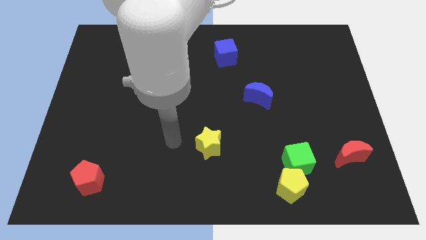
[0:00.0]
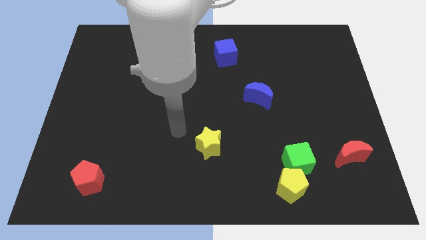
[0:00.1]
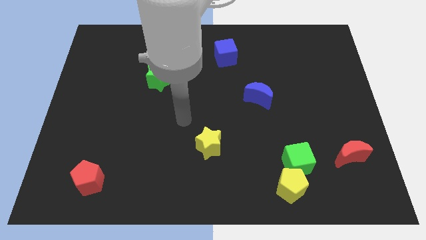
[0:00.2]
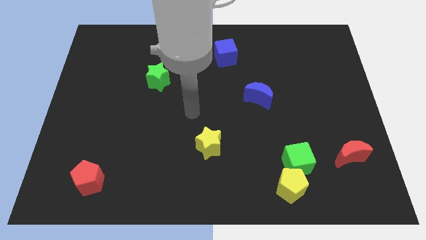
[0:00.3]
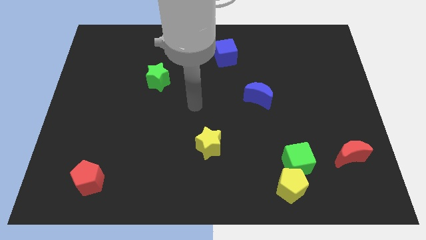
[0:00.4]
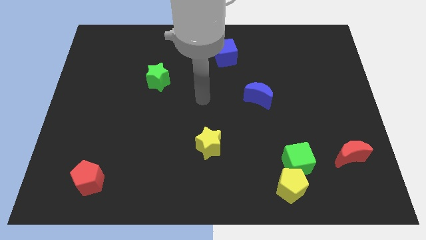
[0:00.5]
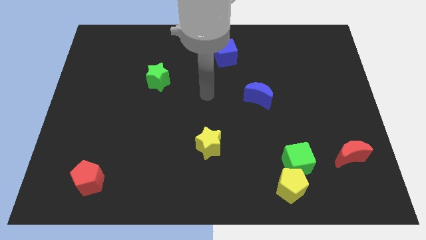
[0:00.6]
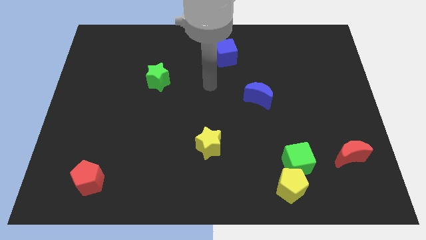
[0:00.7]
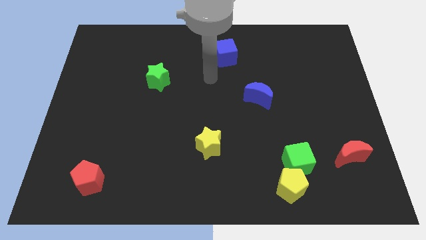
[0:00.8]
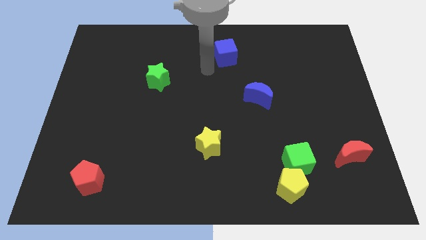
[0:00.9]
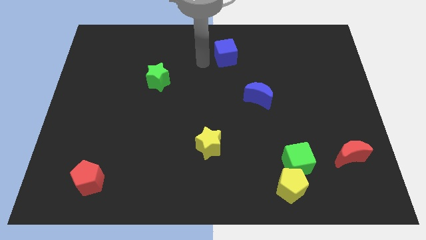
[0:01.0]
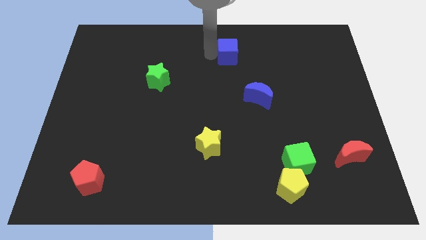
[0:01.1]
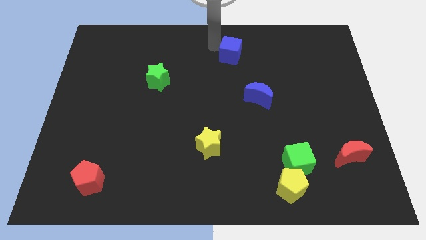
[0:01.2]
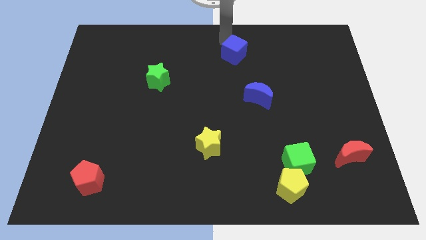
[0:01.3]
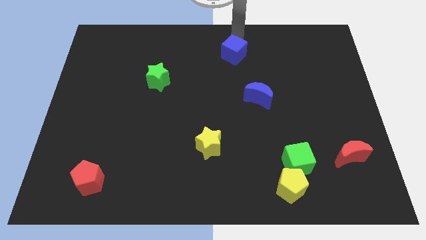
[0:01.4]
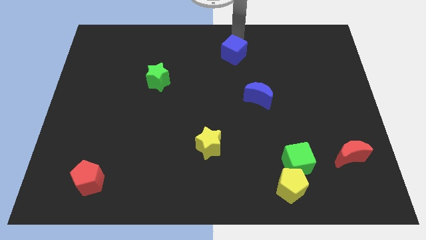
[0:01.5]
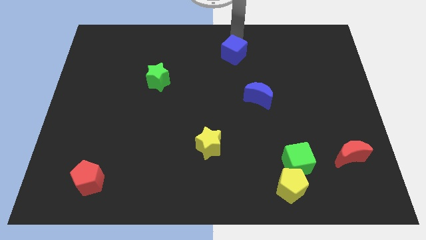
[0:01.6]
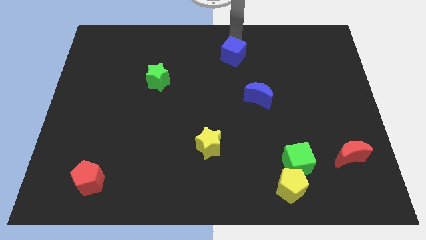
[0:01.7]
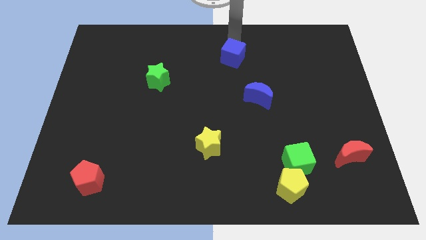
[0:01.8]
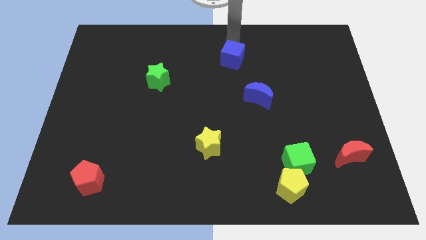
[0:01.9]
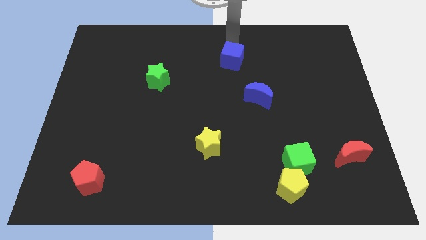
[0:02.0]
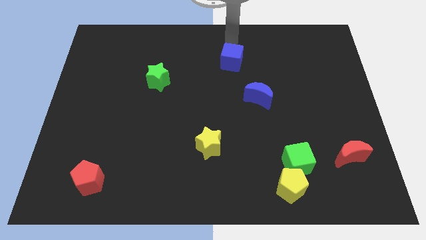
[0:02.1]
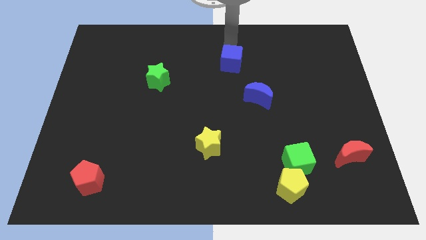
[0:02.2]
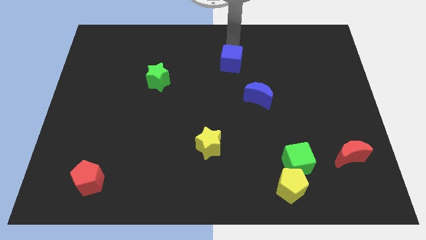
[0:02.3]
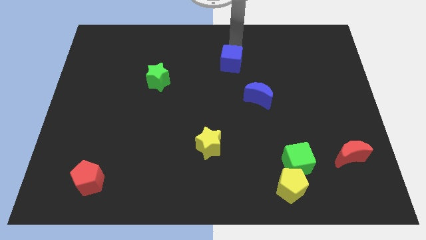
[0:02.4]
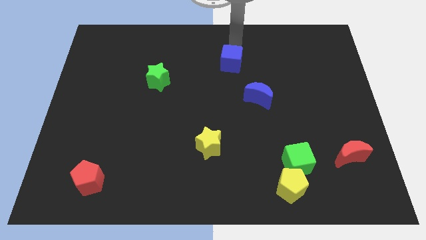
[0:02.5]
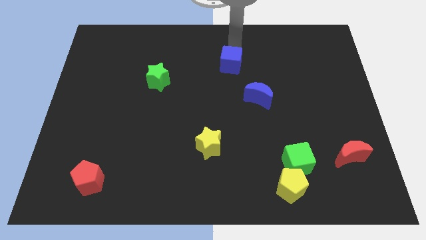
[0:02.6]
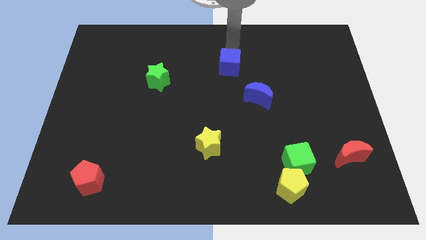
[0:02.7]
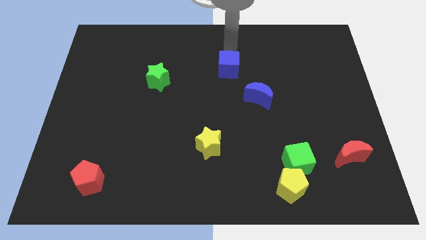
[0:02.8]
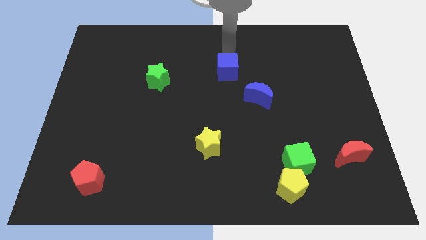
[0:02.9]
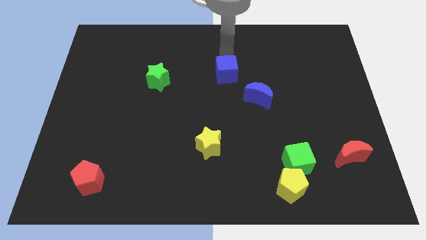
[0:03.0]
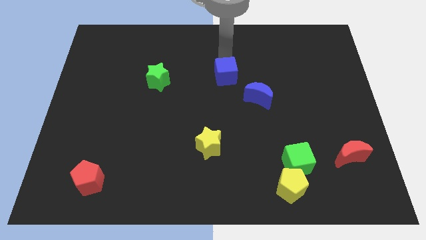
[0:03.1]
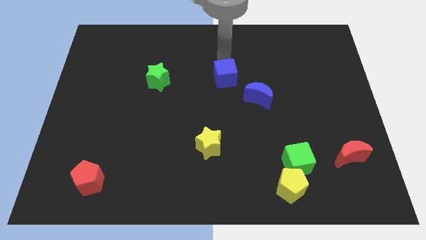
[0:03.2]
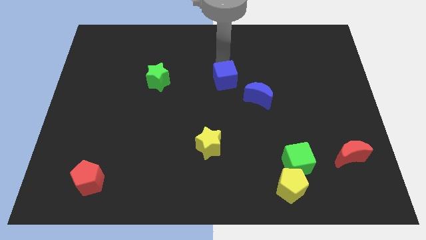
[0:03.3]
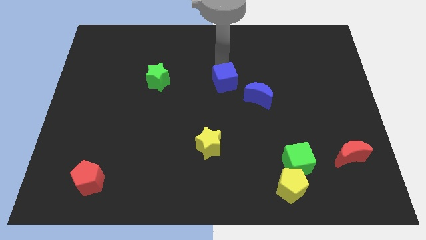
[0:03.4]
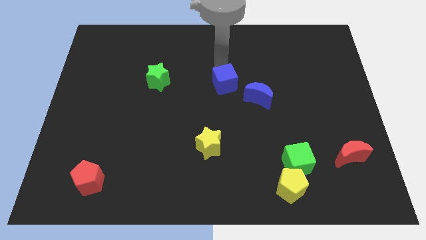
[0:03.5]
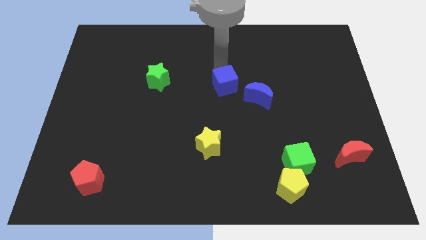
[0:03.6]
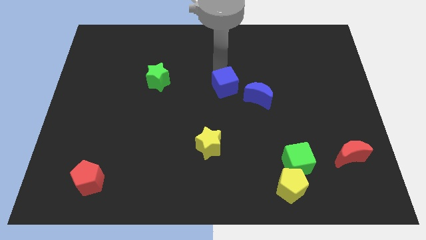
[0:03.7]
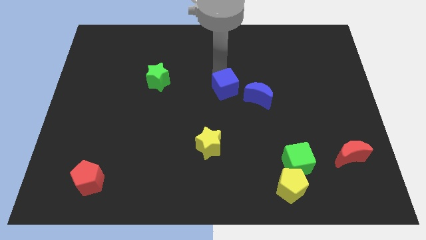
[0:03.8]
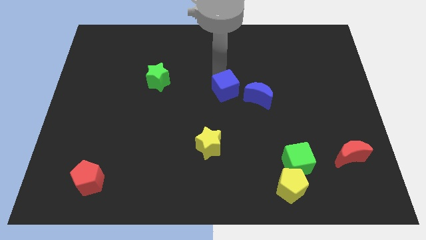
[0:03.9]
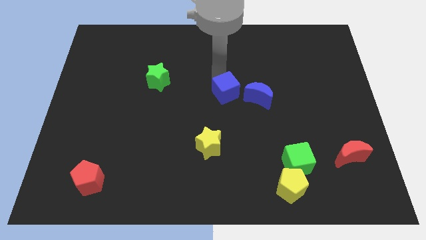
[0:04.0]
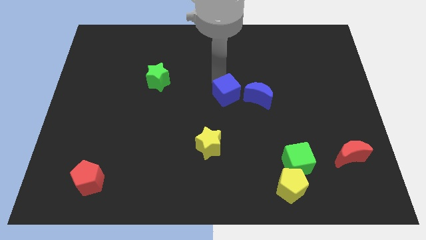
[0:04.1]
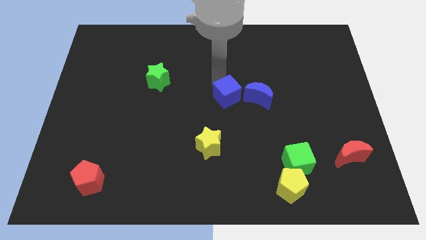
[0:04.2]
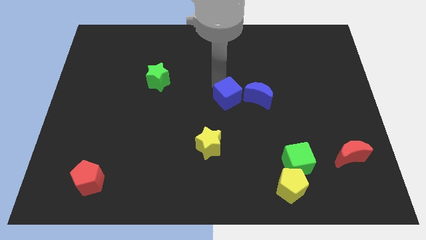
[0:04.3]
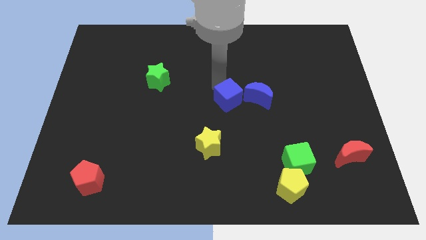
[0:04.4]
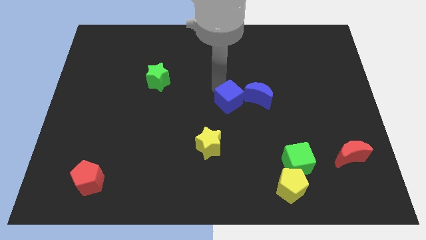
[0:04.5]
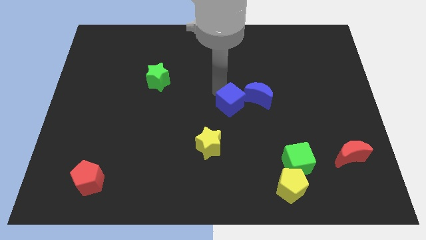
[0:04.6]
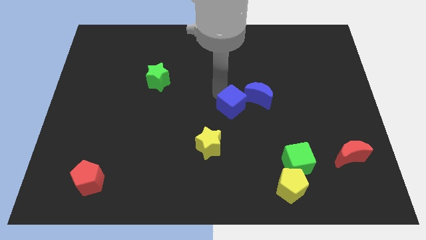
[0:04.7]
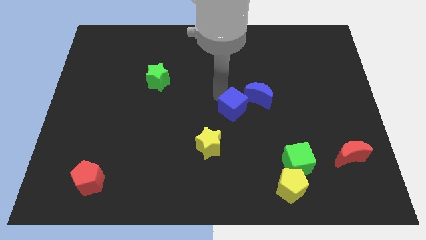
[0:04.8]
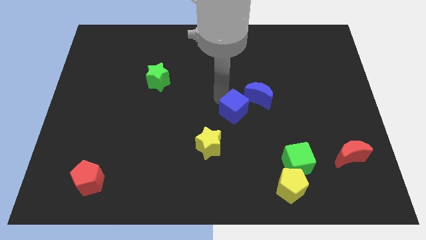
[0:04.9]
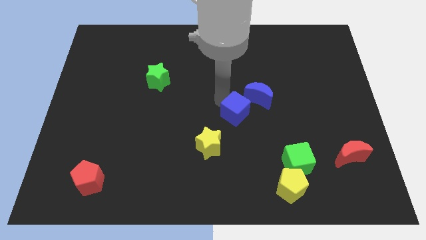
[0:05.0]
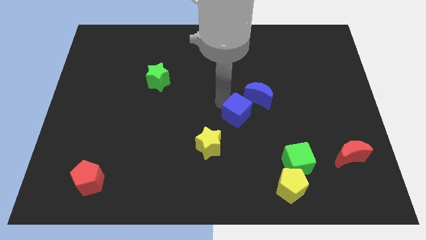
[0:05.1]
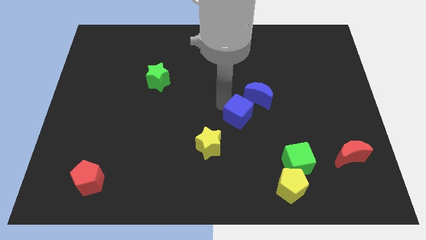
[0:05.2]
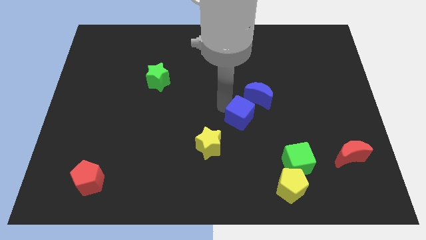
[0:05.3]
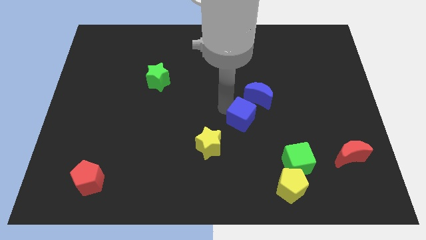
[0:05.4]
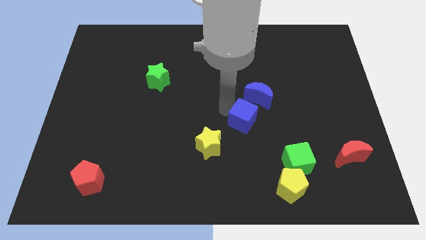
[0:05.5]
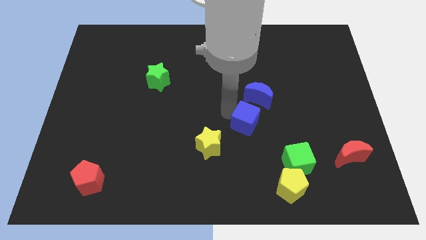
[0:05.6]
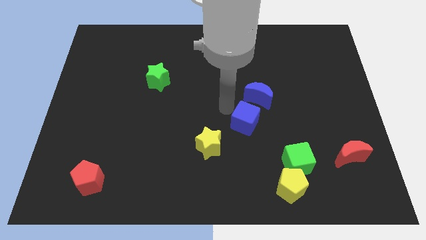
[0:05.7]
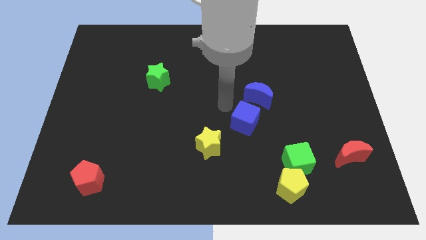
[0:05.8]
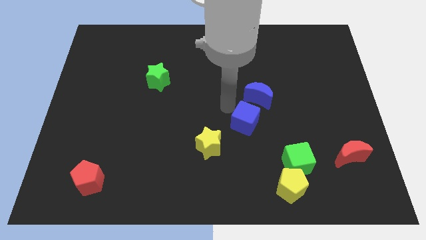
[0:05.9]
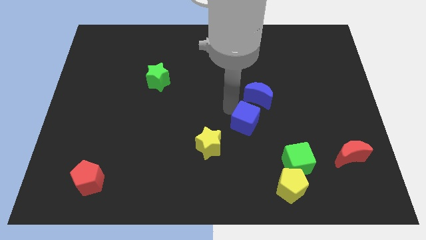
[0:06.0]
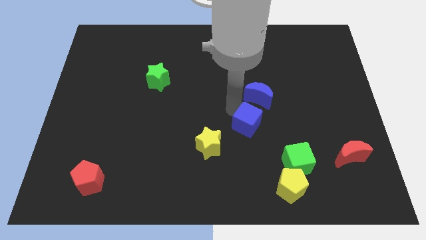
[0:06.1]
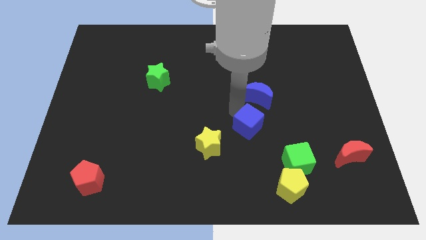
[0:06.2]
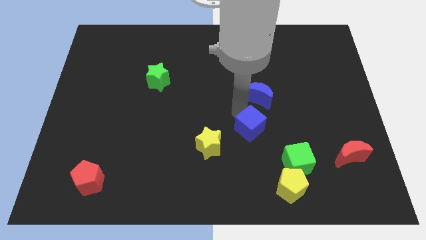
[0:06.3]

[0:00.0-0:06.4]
slide the blue cube diagonally up and to the left of the green cube
